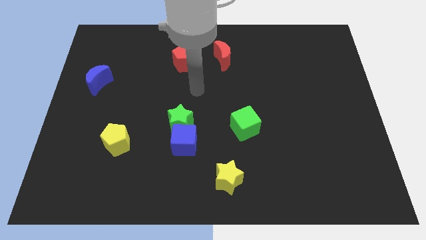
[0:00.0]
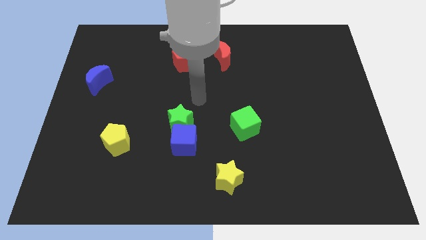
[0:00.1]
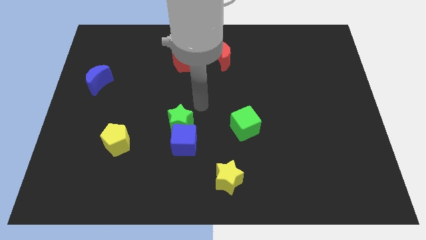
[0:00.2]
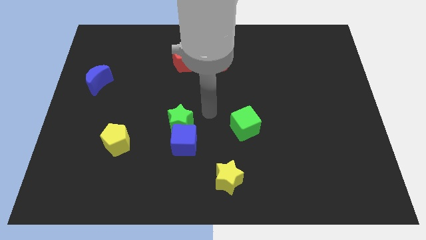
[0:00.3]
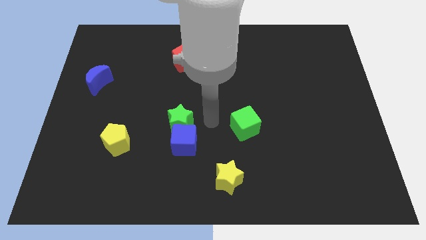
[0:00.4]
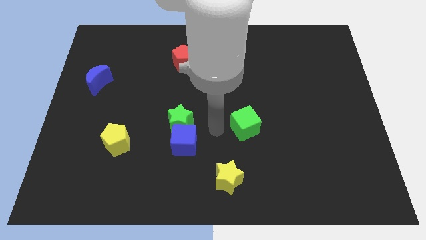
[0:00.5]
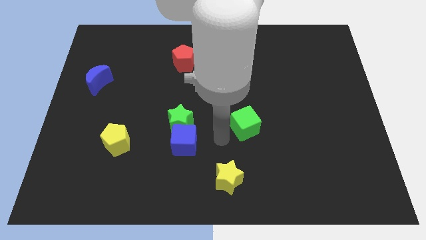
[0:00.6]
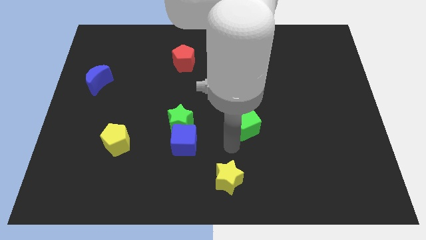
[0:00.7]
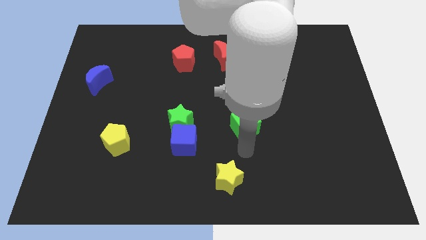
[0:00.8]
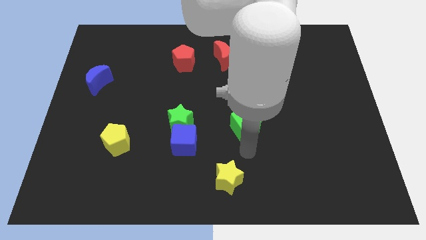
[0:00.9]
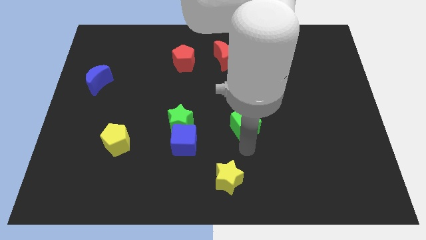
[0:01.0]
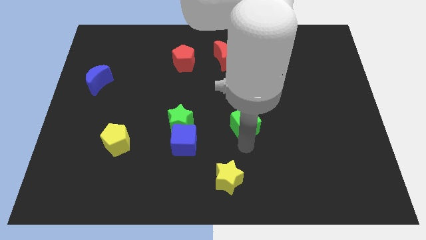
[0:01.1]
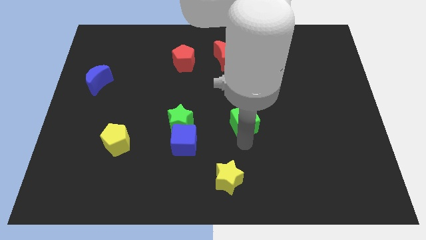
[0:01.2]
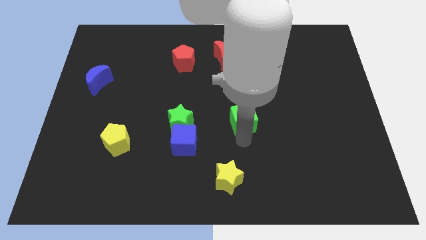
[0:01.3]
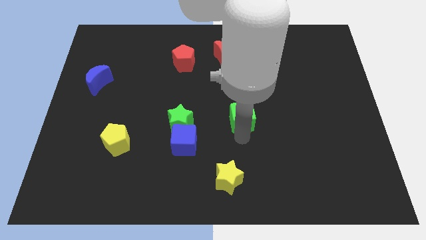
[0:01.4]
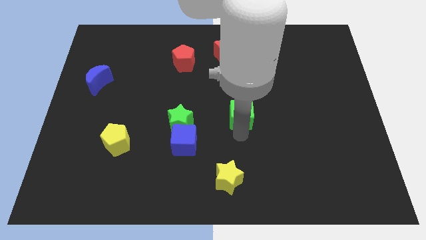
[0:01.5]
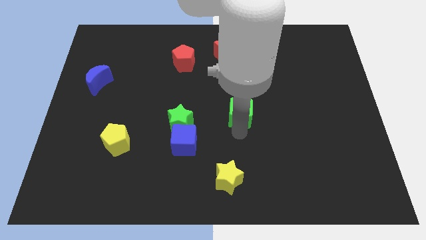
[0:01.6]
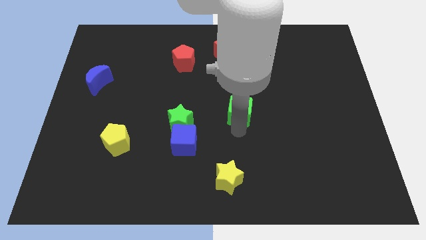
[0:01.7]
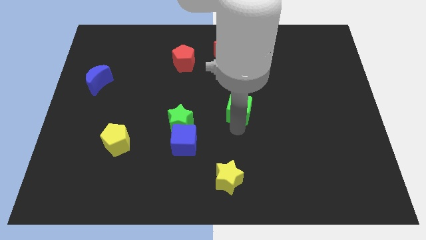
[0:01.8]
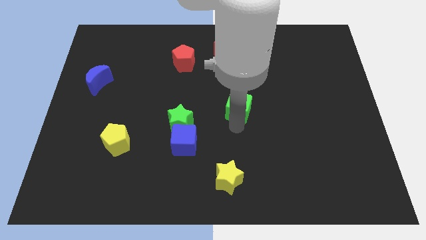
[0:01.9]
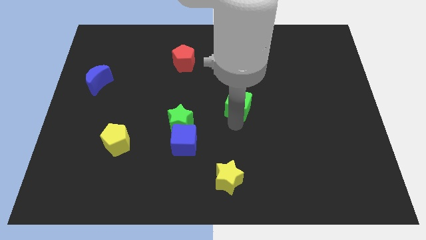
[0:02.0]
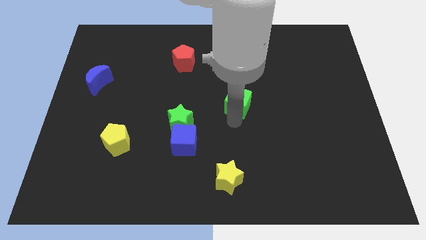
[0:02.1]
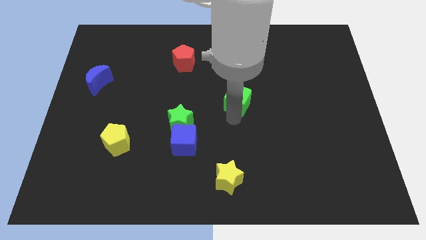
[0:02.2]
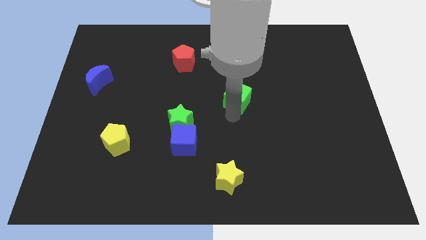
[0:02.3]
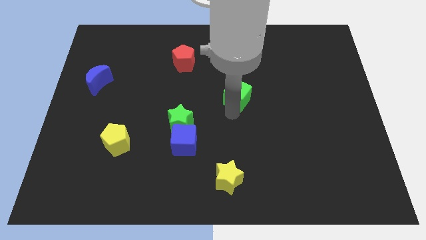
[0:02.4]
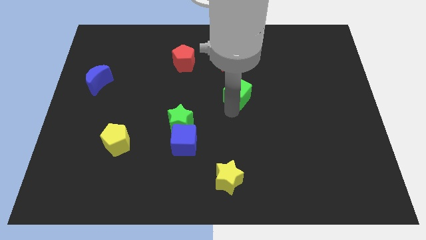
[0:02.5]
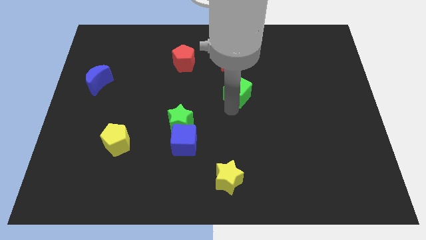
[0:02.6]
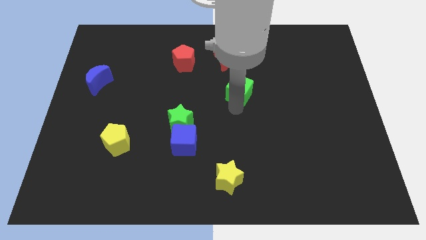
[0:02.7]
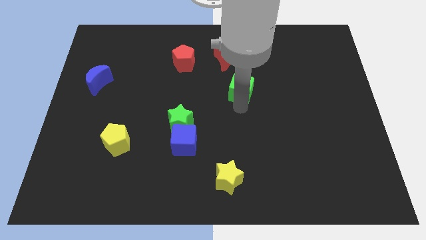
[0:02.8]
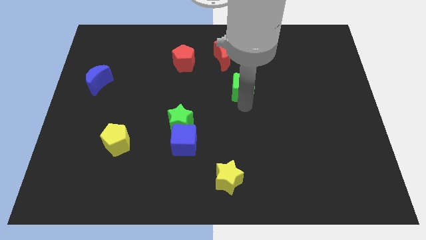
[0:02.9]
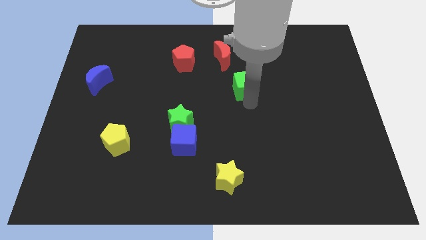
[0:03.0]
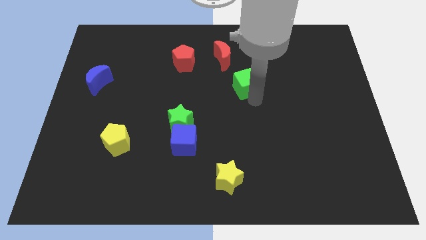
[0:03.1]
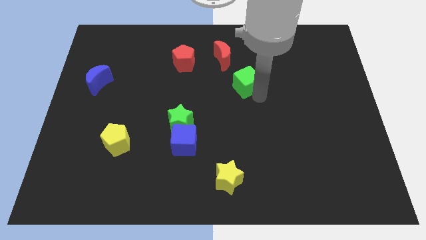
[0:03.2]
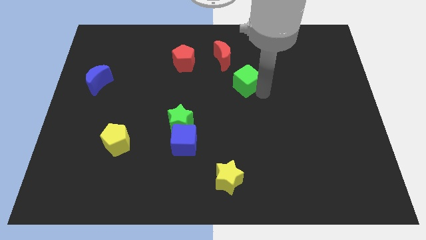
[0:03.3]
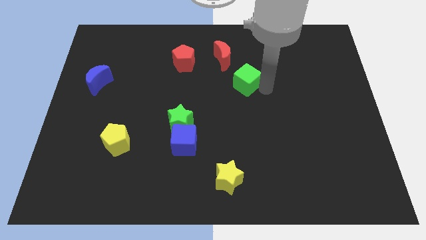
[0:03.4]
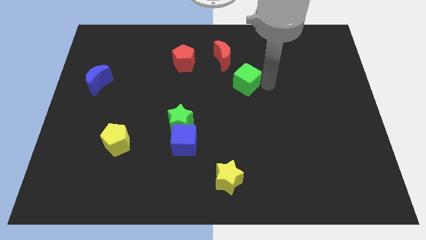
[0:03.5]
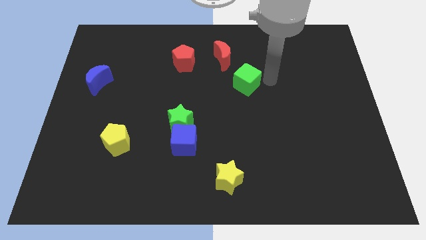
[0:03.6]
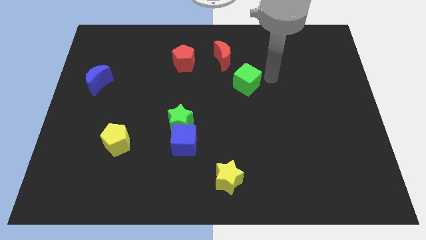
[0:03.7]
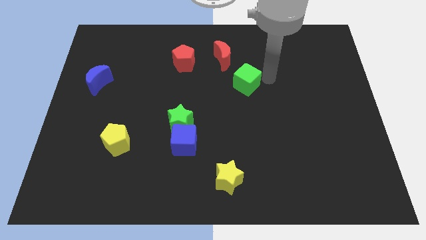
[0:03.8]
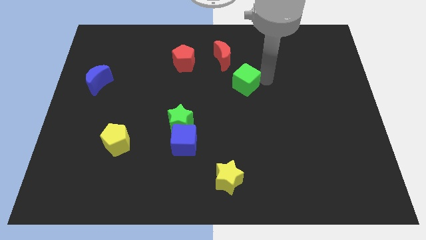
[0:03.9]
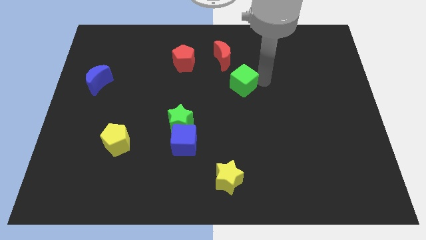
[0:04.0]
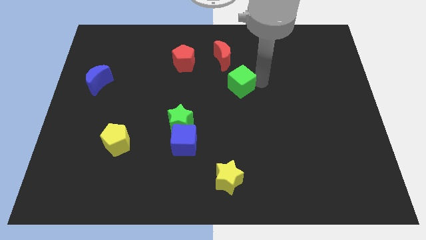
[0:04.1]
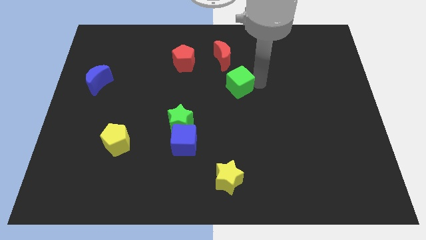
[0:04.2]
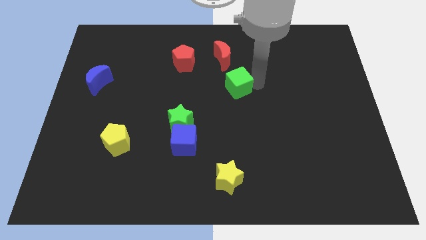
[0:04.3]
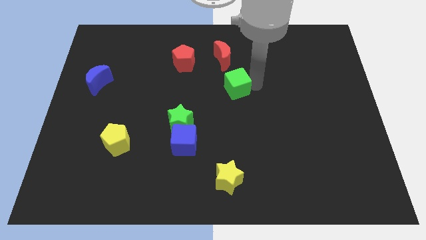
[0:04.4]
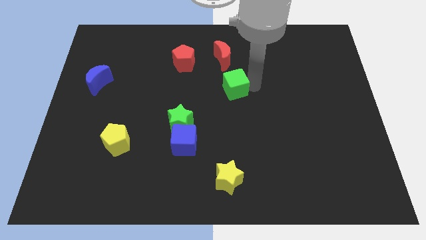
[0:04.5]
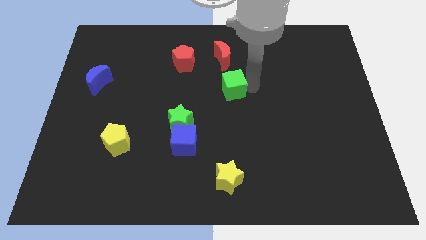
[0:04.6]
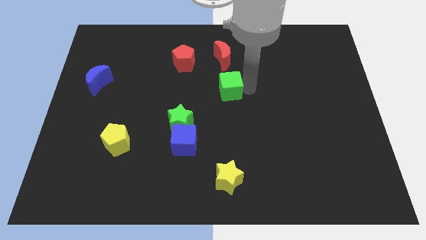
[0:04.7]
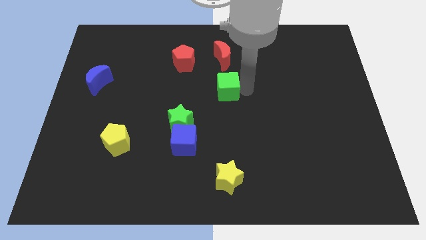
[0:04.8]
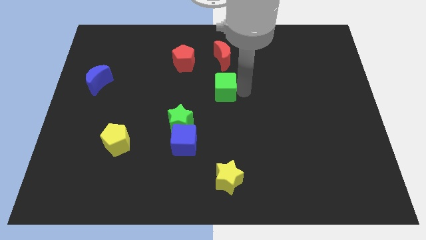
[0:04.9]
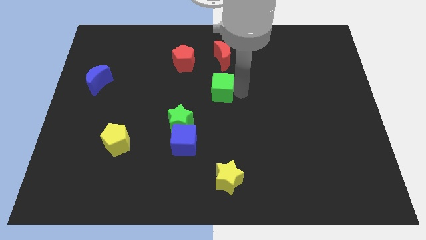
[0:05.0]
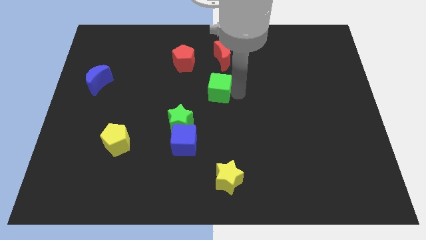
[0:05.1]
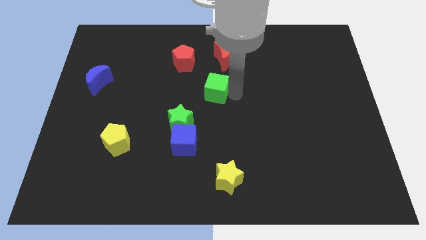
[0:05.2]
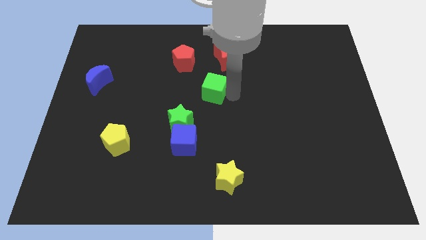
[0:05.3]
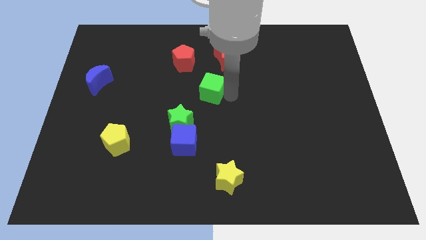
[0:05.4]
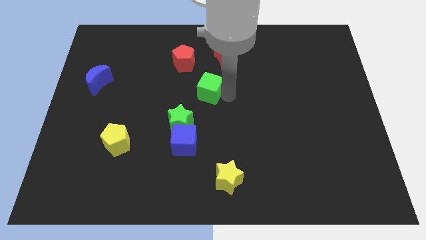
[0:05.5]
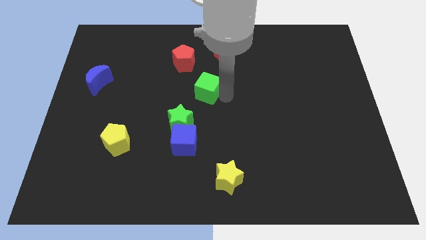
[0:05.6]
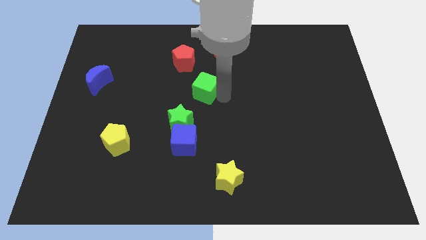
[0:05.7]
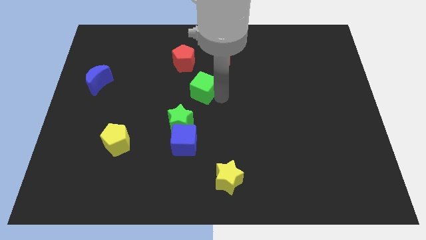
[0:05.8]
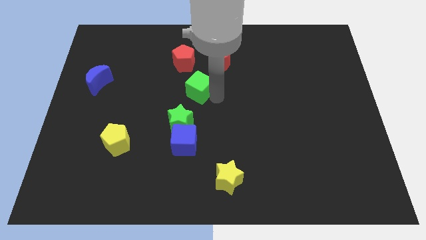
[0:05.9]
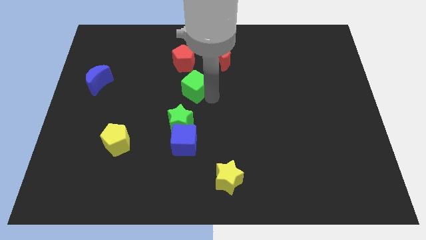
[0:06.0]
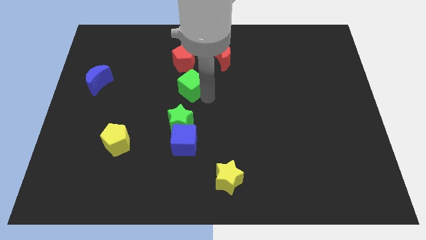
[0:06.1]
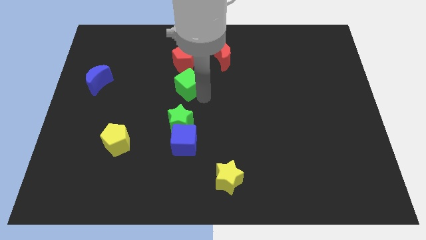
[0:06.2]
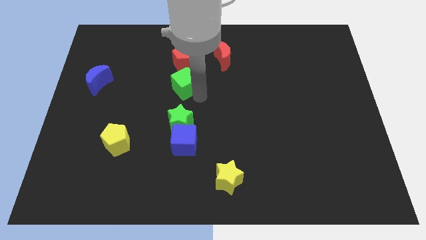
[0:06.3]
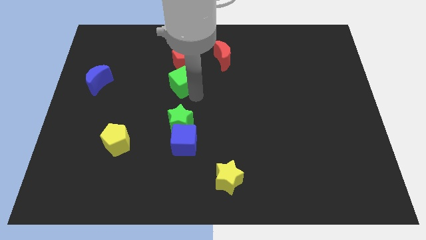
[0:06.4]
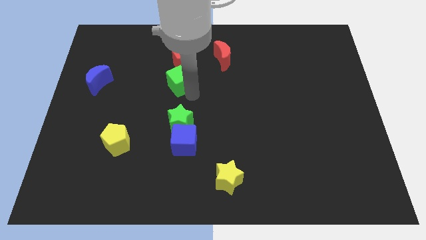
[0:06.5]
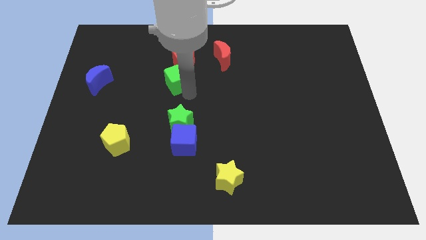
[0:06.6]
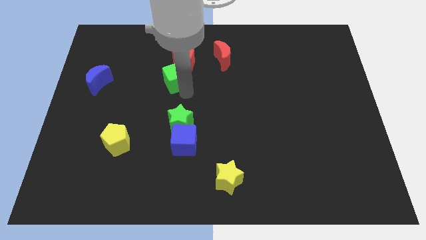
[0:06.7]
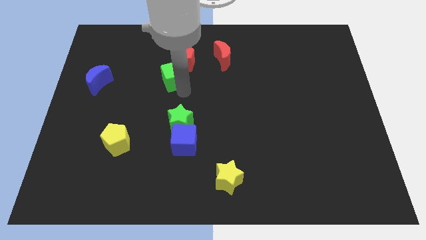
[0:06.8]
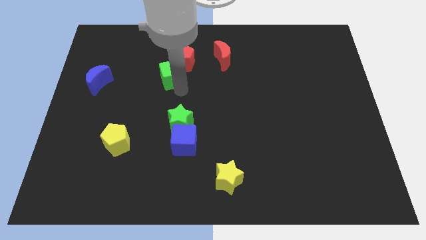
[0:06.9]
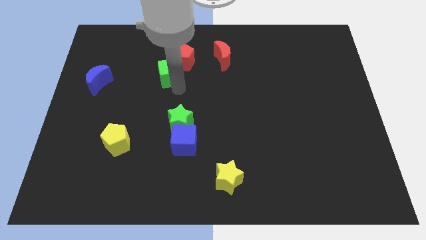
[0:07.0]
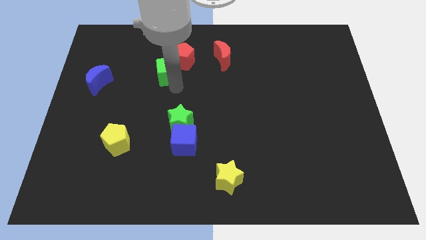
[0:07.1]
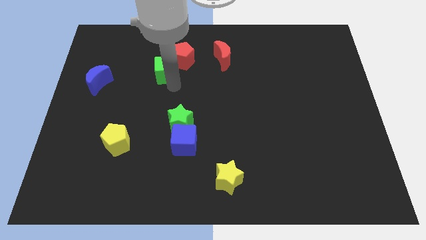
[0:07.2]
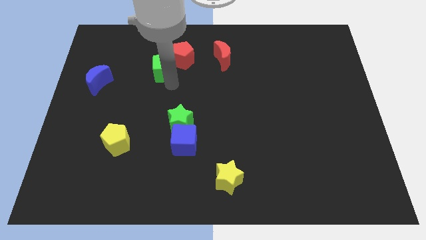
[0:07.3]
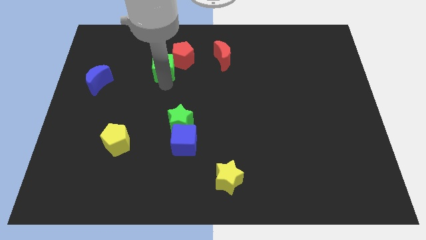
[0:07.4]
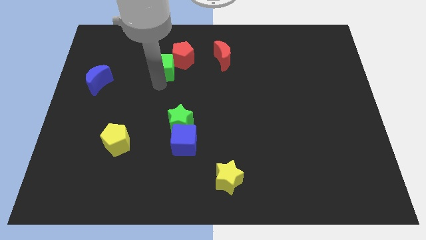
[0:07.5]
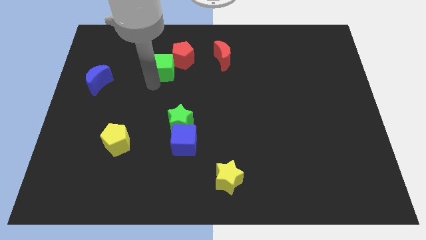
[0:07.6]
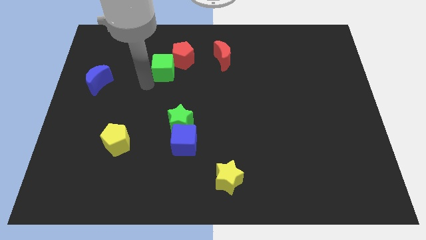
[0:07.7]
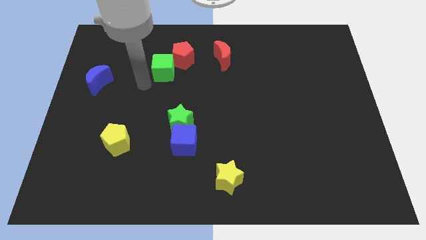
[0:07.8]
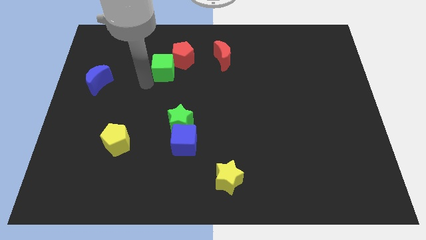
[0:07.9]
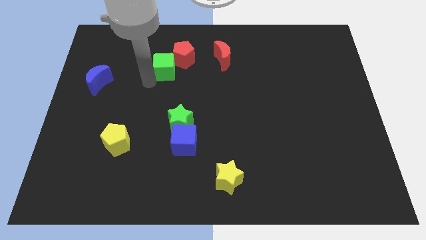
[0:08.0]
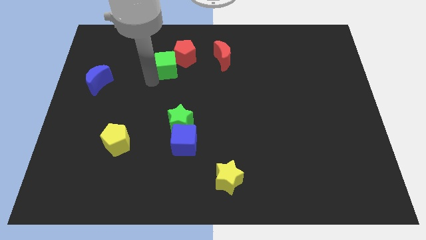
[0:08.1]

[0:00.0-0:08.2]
push the green cube to the red pentagon

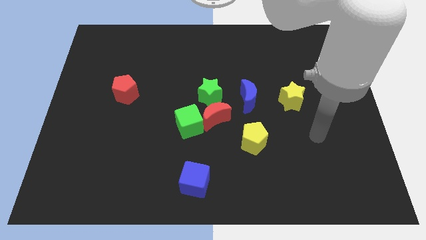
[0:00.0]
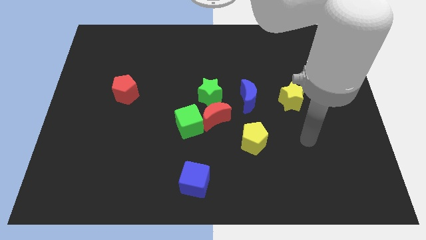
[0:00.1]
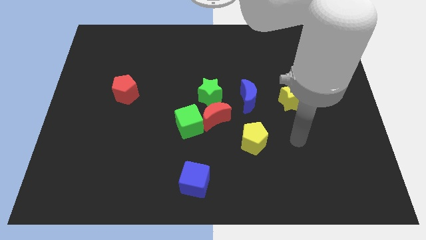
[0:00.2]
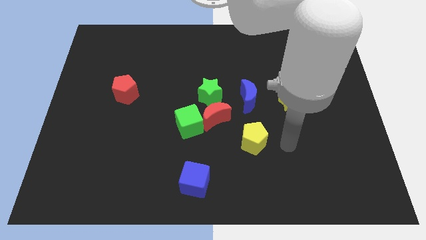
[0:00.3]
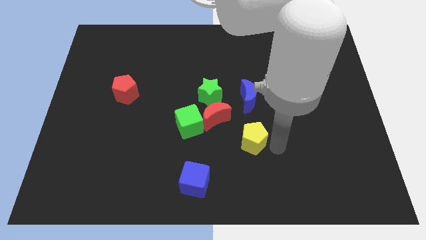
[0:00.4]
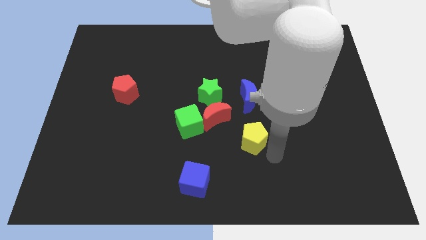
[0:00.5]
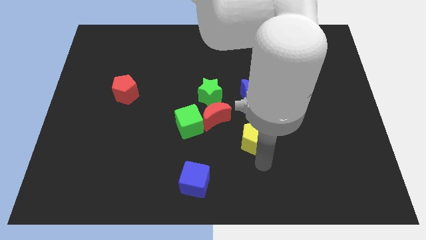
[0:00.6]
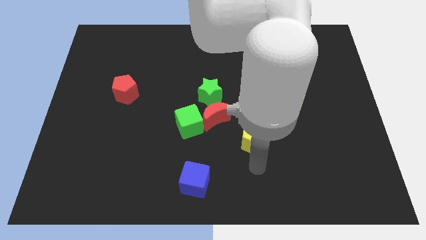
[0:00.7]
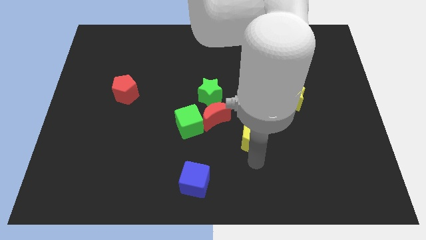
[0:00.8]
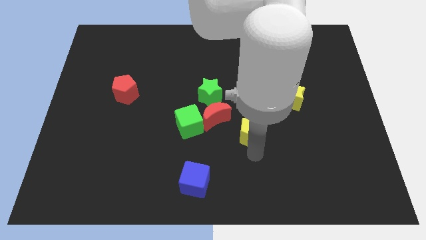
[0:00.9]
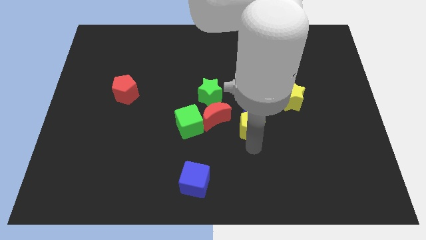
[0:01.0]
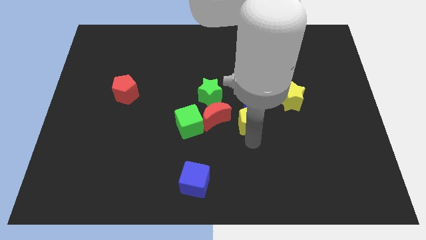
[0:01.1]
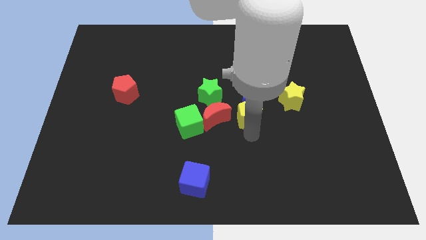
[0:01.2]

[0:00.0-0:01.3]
move the yellow pentagon close to the blue moon
